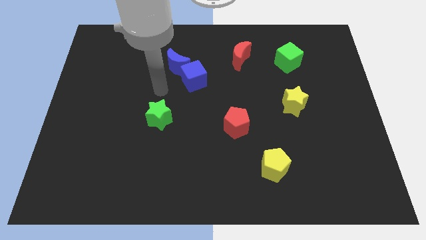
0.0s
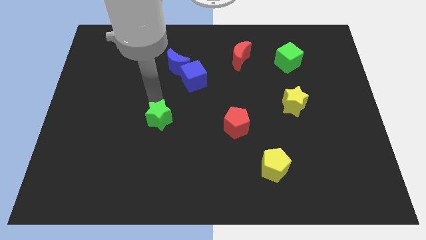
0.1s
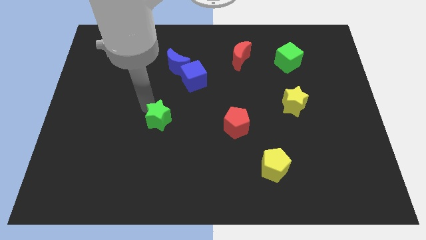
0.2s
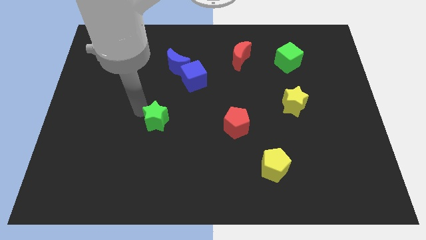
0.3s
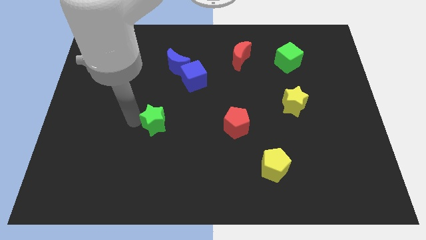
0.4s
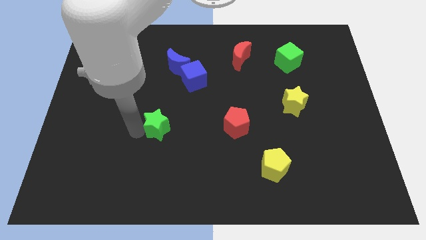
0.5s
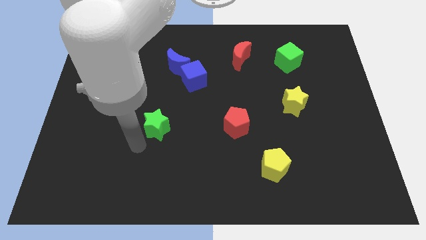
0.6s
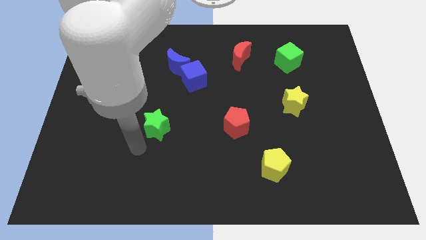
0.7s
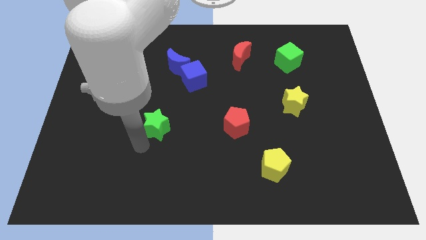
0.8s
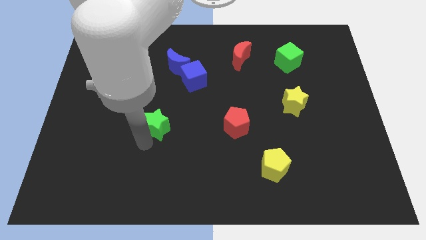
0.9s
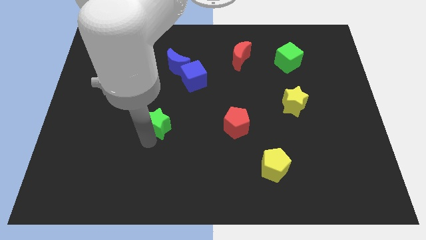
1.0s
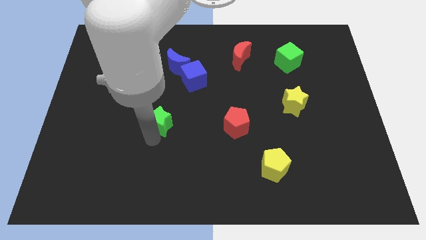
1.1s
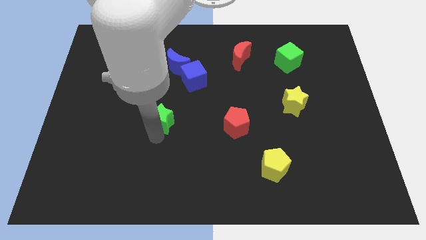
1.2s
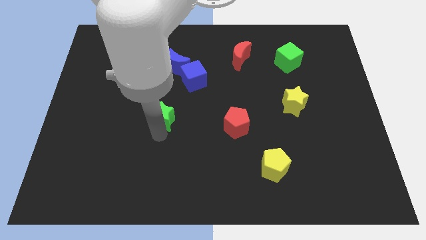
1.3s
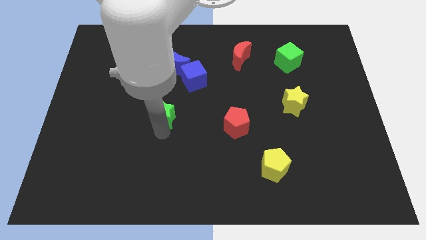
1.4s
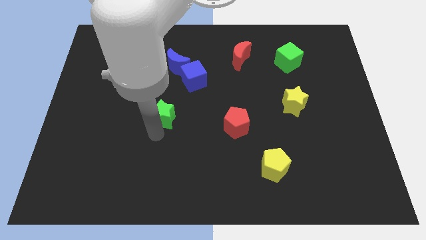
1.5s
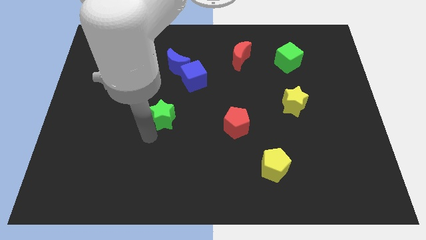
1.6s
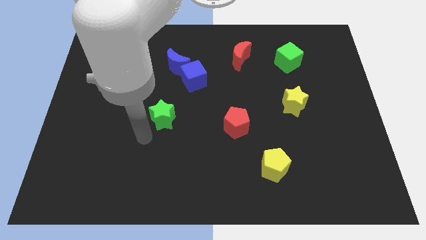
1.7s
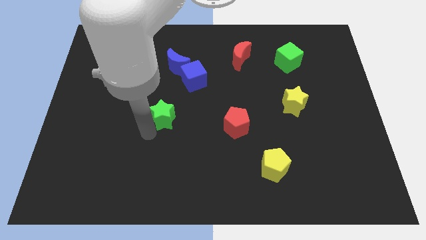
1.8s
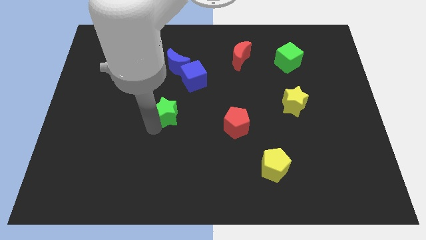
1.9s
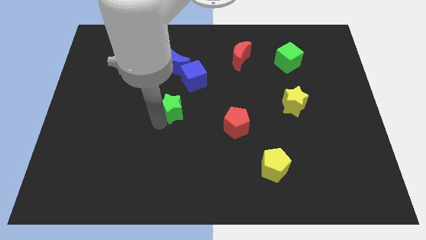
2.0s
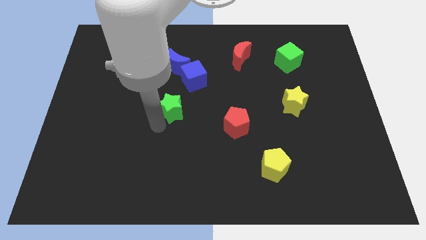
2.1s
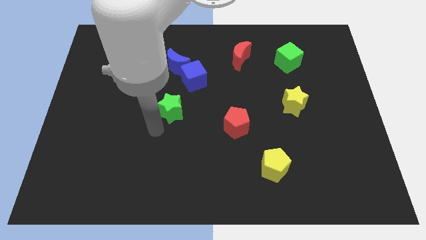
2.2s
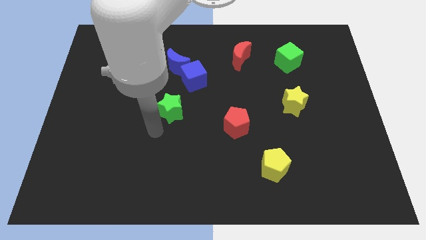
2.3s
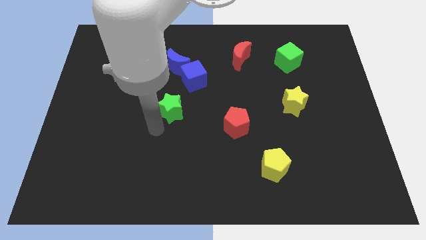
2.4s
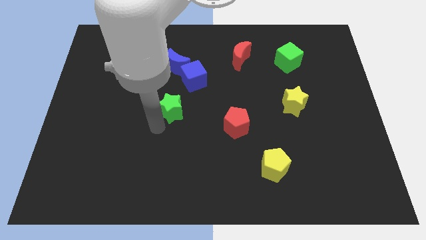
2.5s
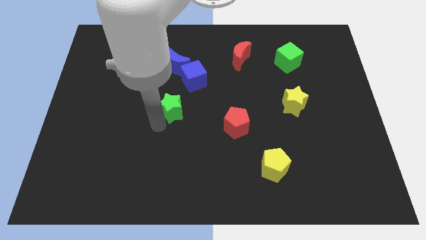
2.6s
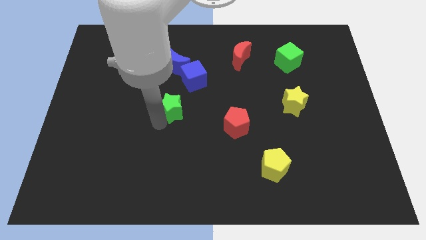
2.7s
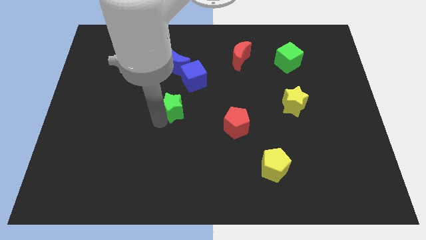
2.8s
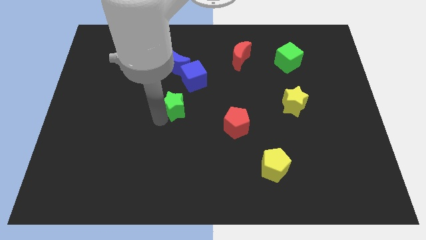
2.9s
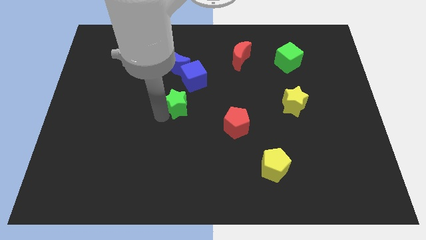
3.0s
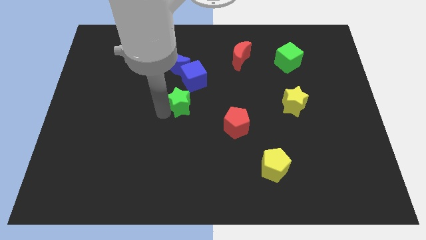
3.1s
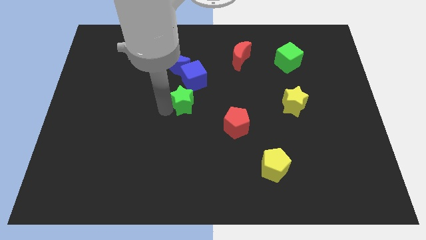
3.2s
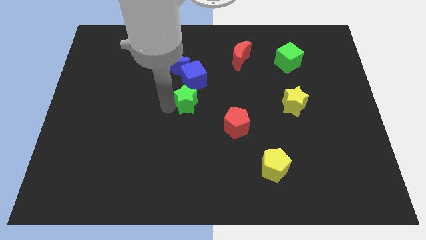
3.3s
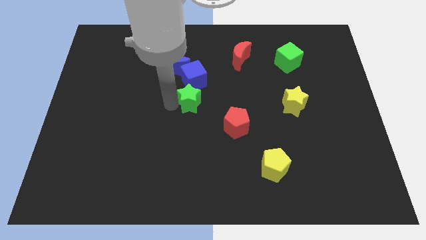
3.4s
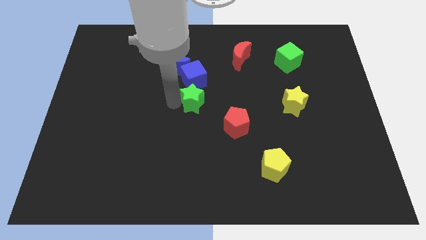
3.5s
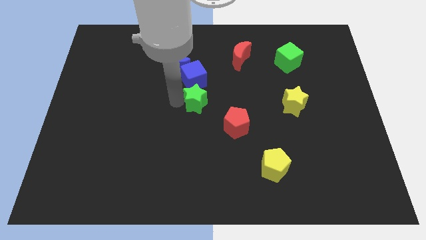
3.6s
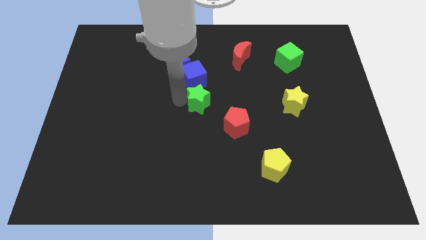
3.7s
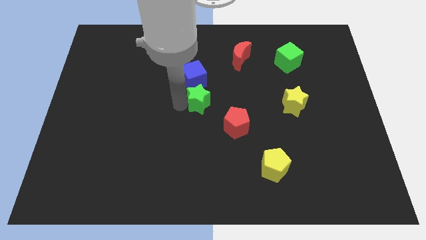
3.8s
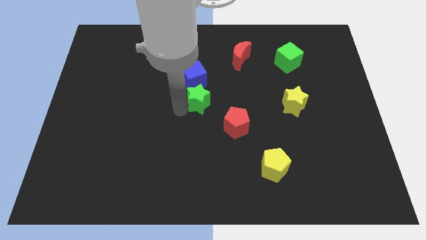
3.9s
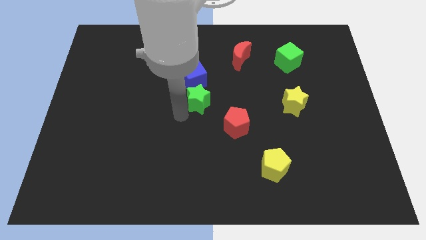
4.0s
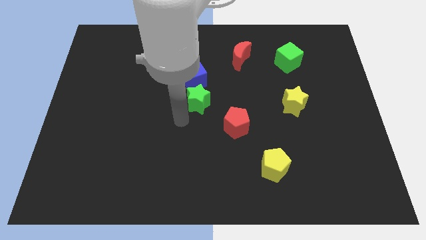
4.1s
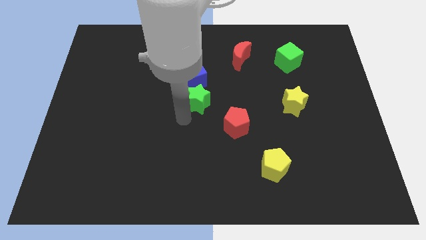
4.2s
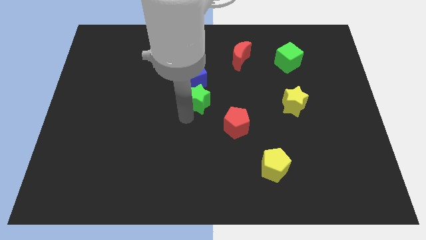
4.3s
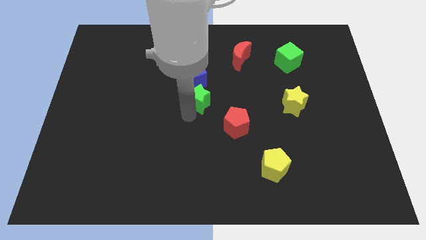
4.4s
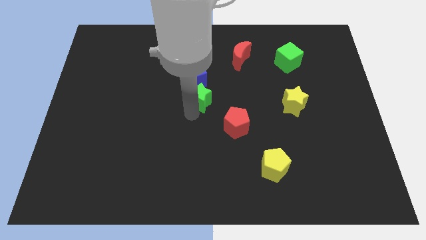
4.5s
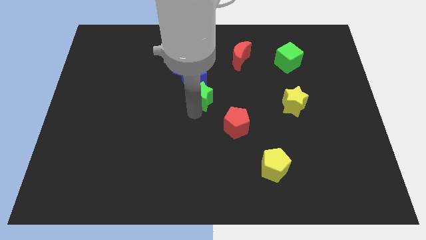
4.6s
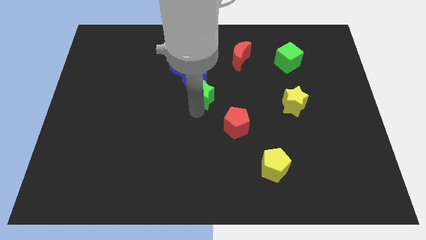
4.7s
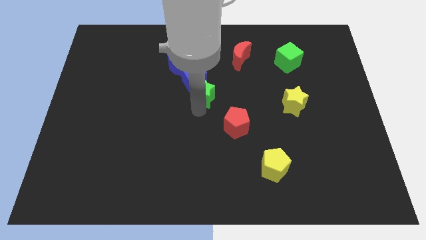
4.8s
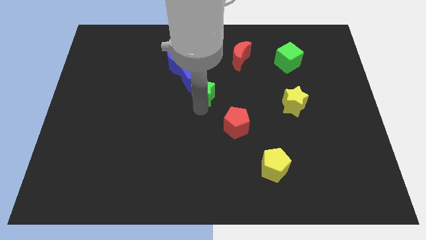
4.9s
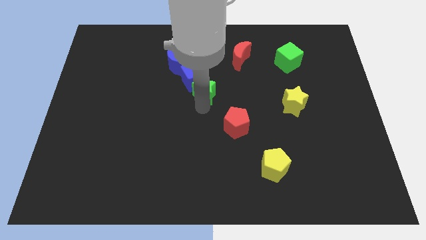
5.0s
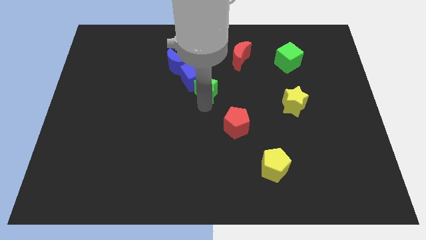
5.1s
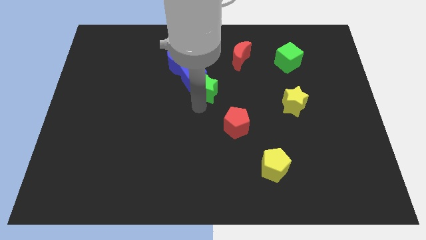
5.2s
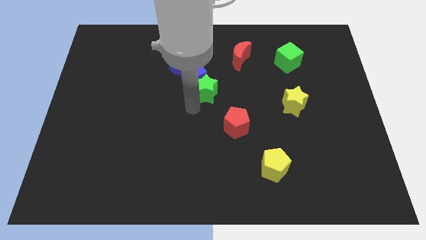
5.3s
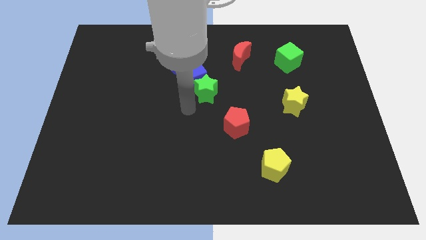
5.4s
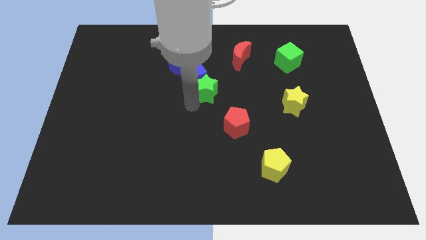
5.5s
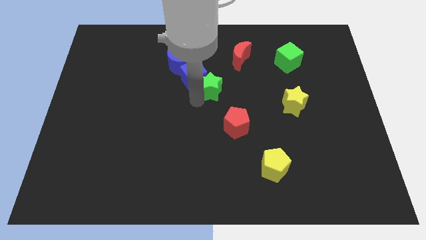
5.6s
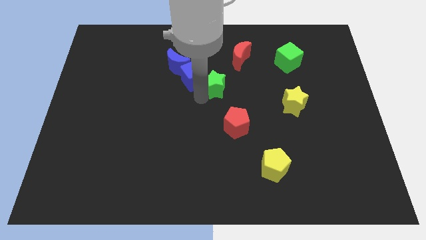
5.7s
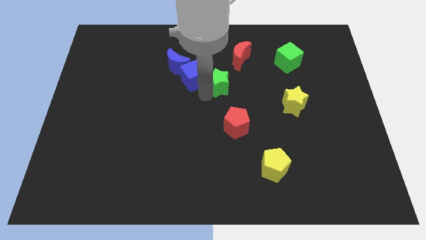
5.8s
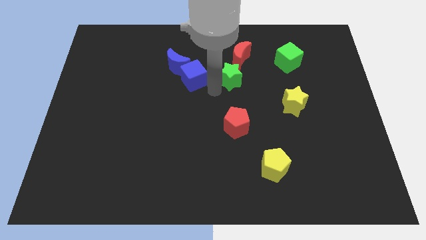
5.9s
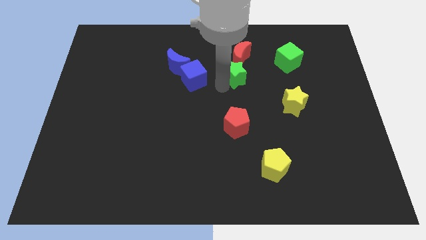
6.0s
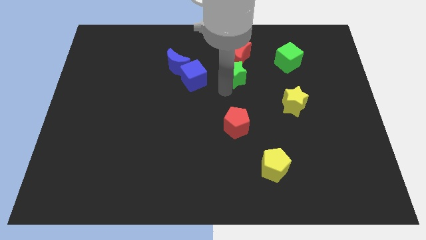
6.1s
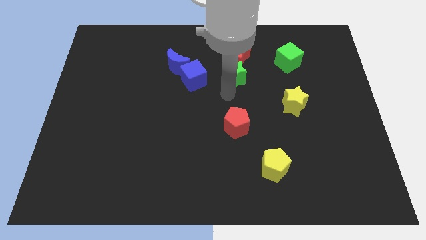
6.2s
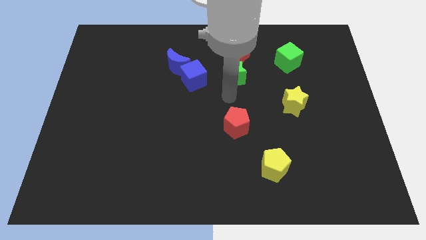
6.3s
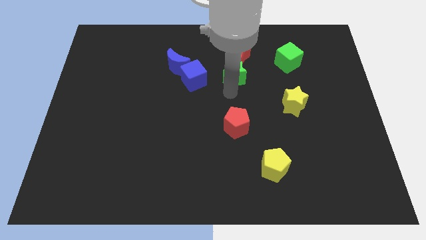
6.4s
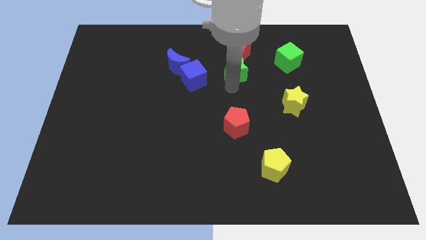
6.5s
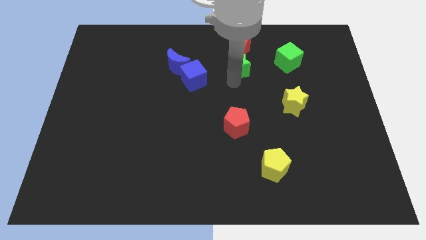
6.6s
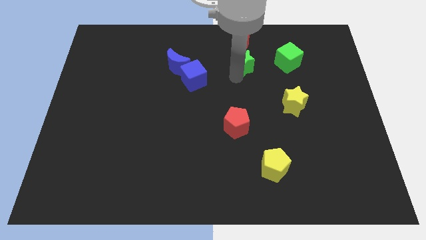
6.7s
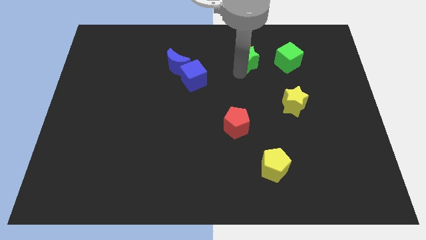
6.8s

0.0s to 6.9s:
put the green star to the red moon

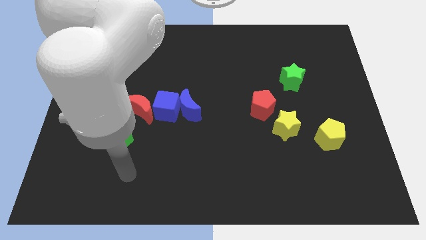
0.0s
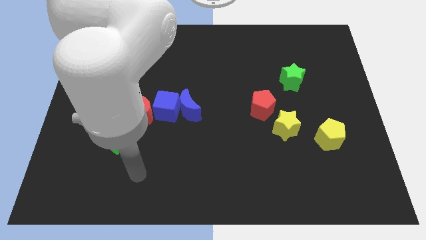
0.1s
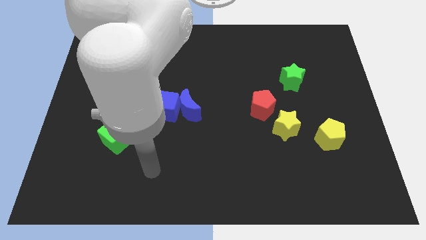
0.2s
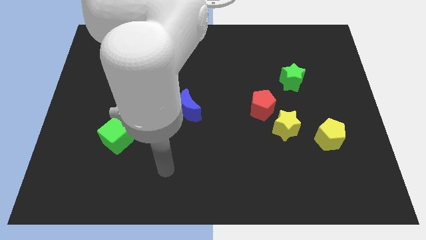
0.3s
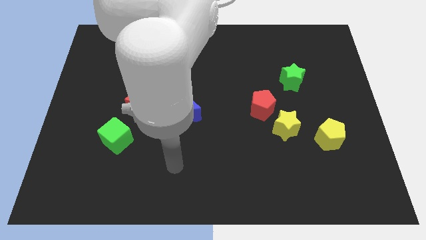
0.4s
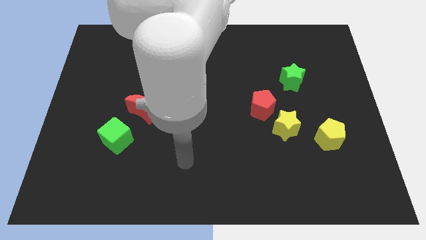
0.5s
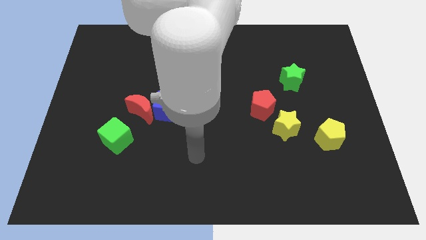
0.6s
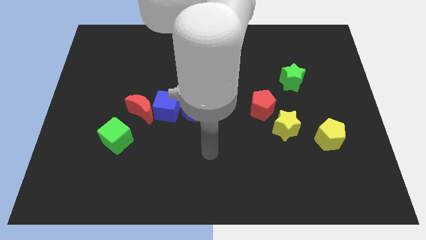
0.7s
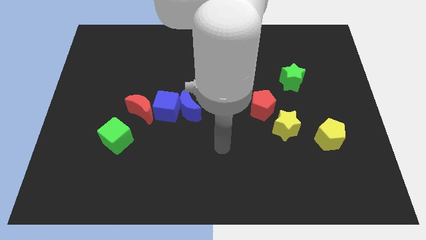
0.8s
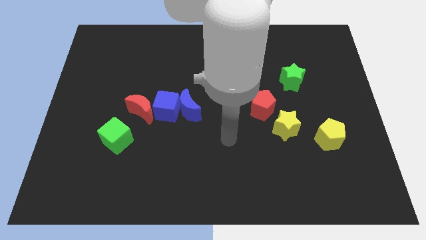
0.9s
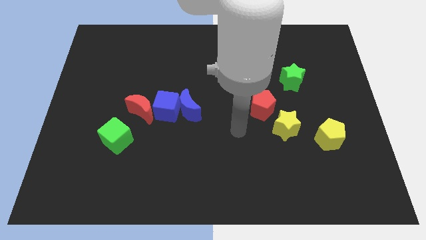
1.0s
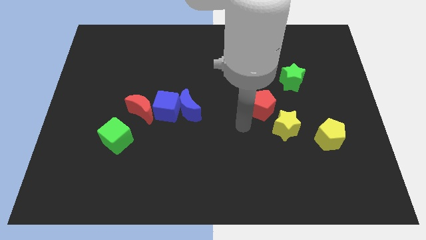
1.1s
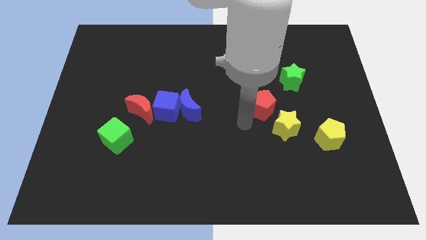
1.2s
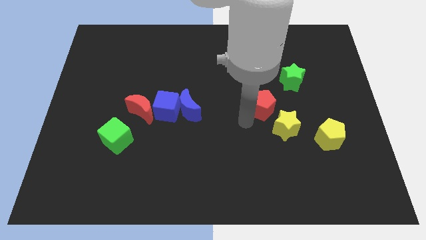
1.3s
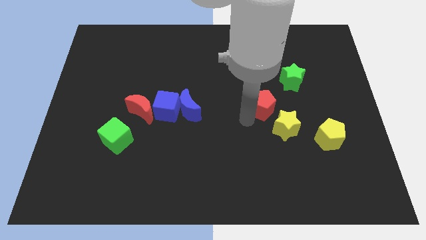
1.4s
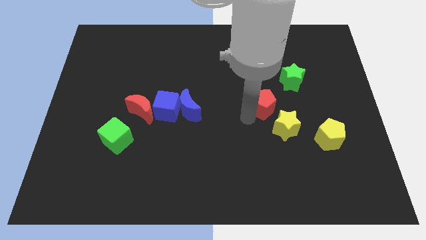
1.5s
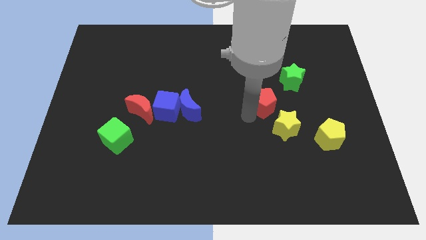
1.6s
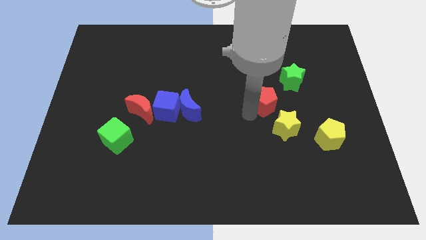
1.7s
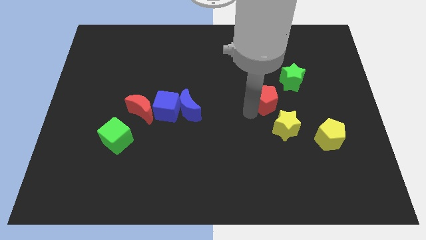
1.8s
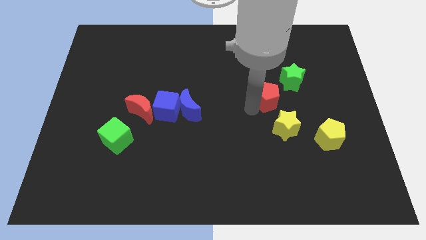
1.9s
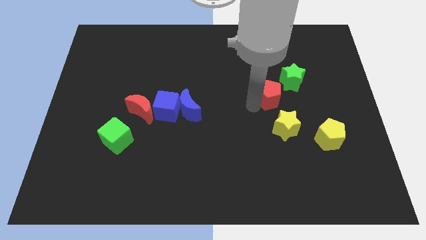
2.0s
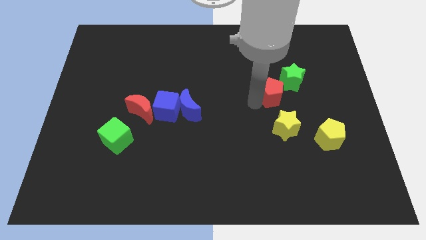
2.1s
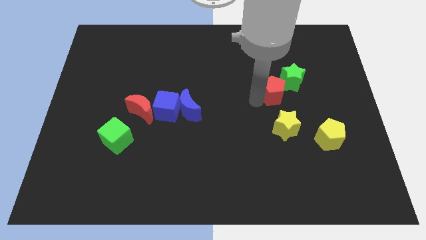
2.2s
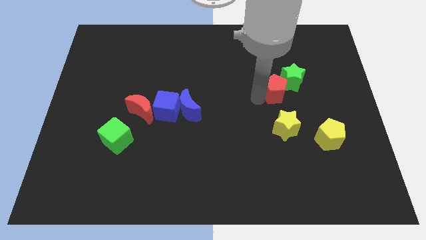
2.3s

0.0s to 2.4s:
slide the red pentagon next to the green star
